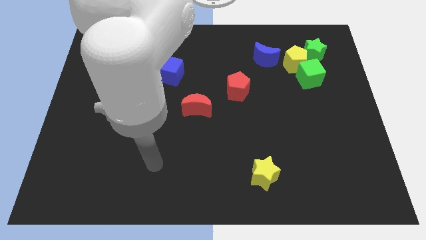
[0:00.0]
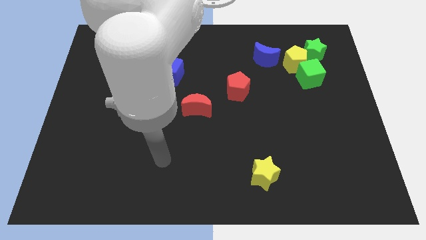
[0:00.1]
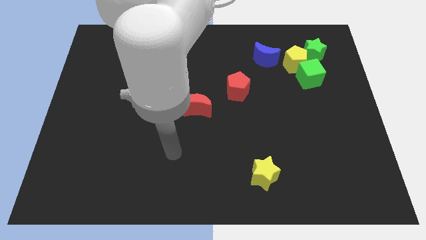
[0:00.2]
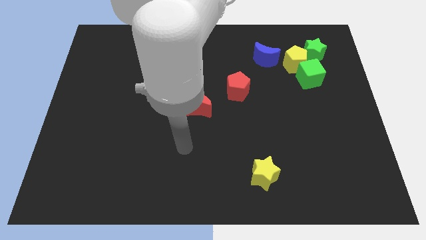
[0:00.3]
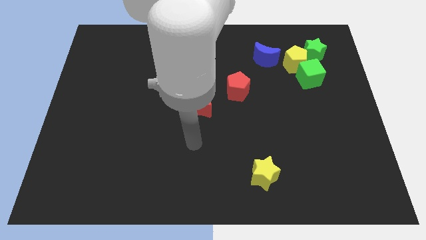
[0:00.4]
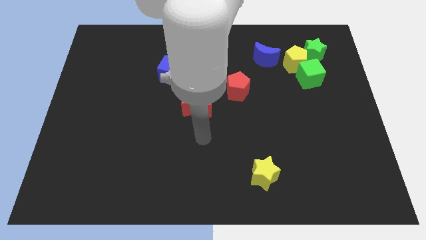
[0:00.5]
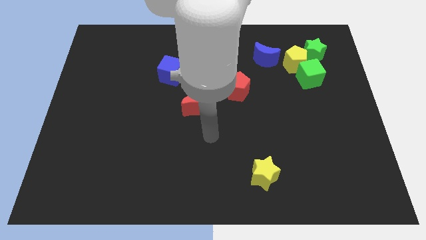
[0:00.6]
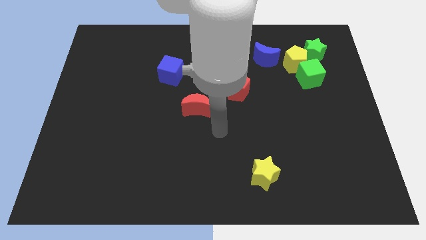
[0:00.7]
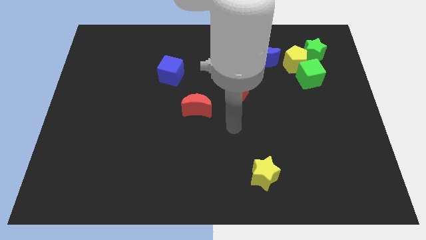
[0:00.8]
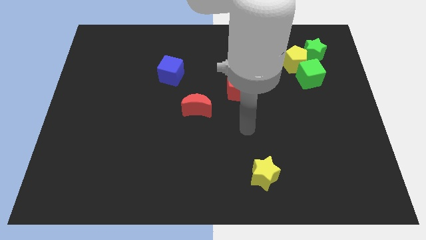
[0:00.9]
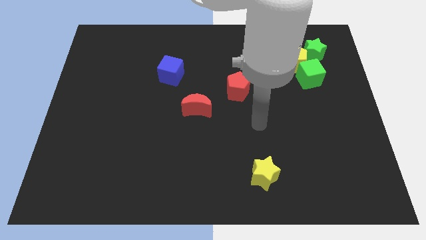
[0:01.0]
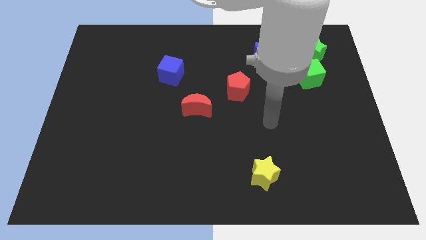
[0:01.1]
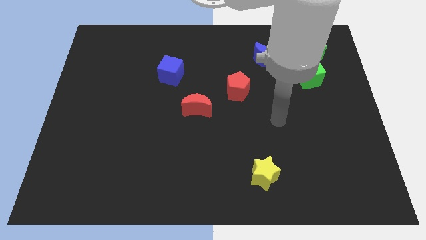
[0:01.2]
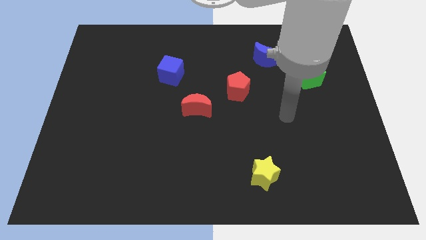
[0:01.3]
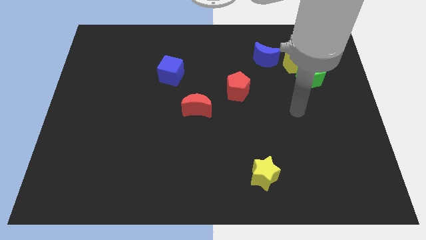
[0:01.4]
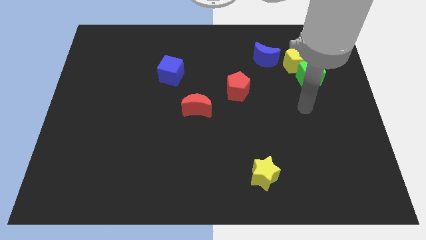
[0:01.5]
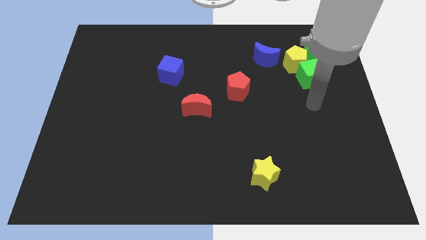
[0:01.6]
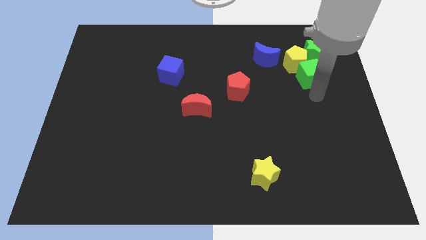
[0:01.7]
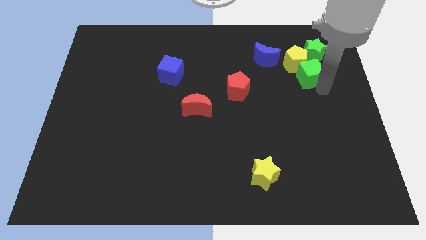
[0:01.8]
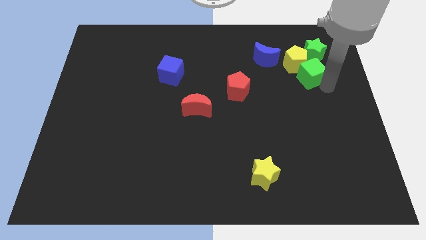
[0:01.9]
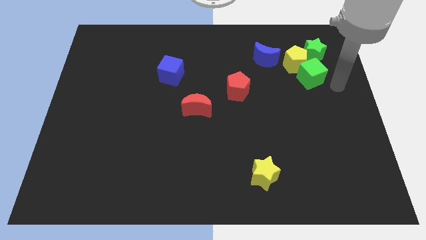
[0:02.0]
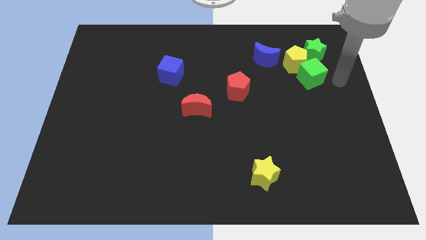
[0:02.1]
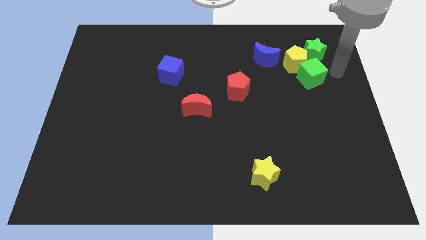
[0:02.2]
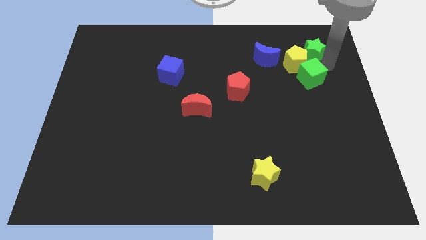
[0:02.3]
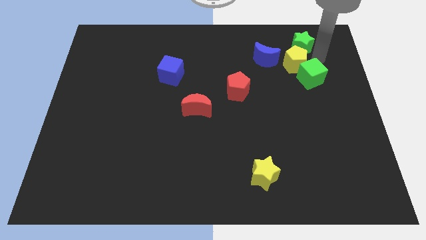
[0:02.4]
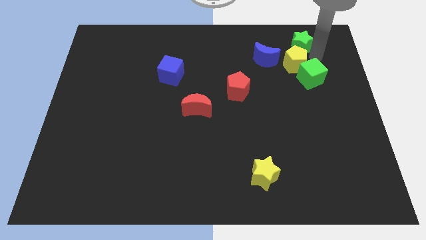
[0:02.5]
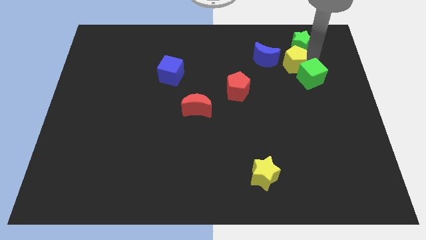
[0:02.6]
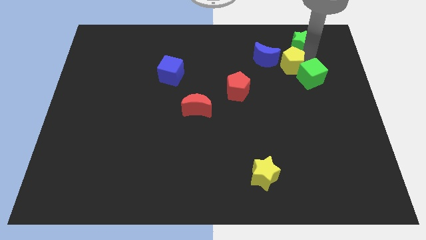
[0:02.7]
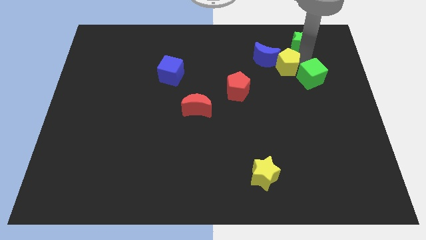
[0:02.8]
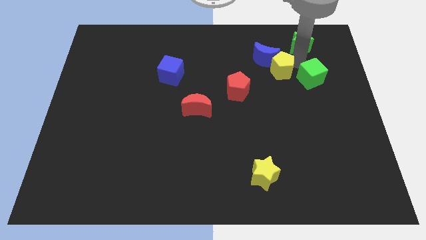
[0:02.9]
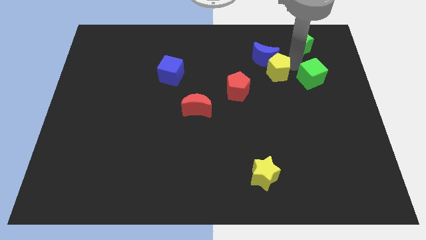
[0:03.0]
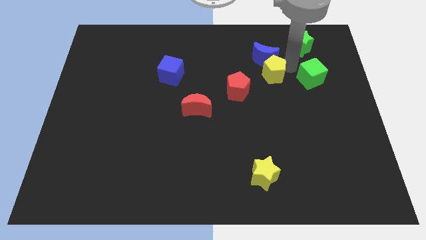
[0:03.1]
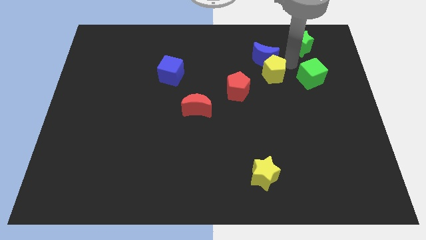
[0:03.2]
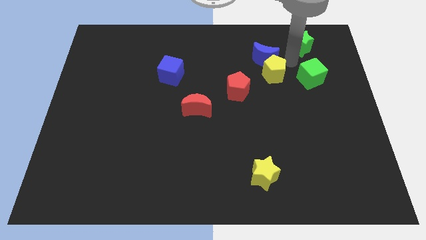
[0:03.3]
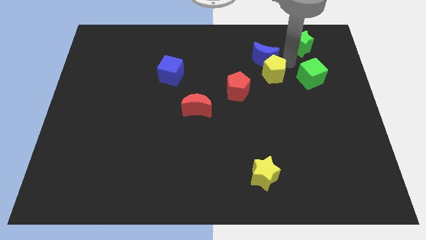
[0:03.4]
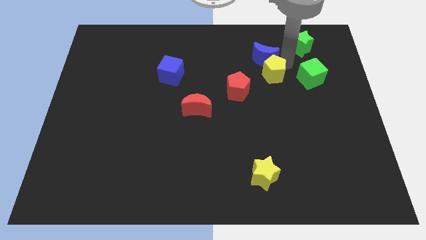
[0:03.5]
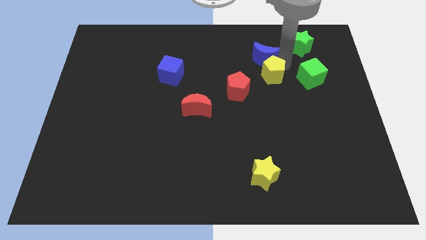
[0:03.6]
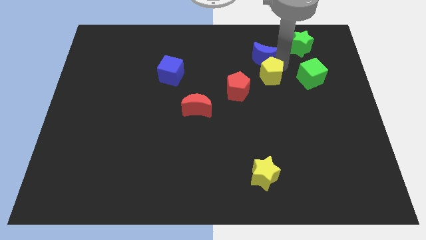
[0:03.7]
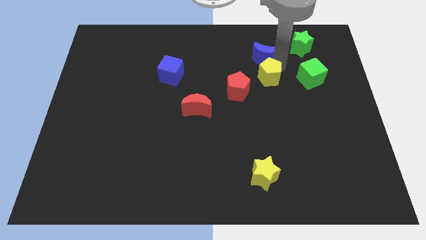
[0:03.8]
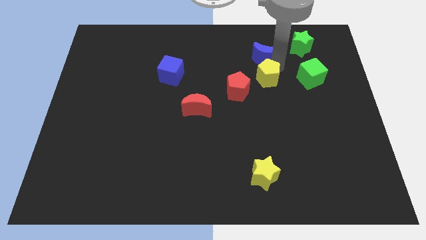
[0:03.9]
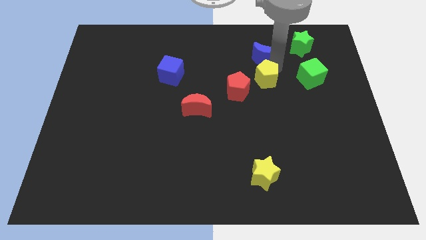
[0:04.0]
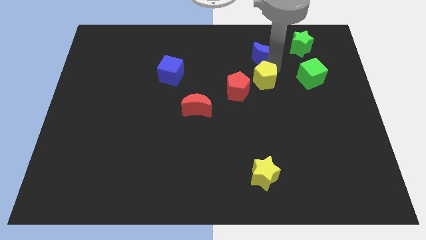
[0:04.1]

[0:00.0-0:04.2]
pull the yellow pentagon apart from the group of blocks

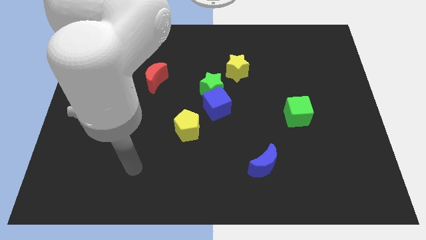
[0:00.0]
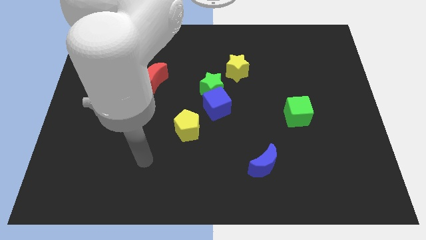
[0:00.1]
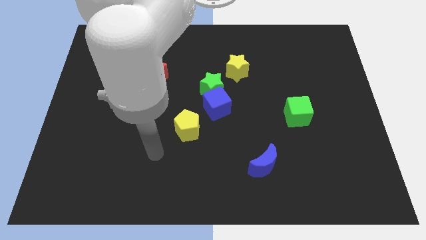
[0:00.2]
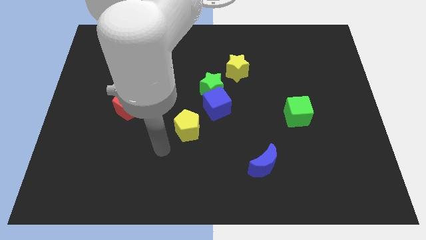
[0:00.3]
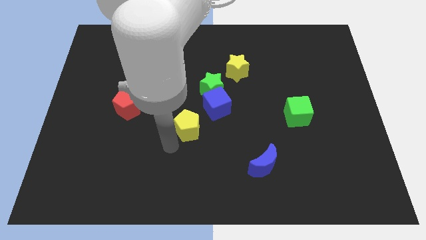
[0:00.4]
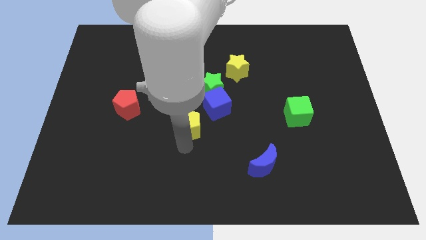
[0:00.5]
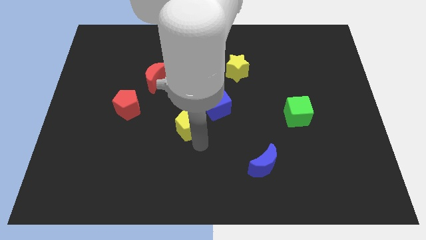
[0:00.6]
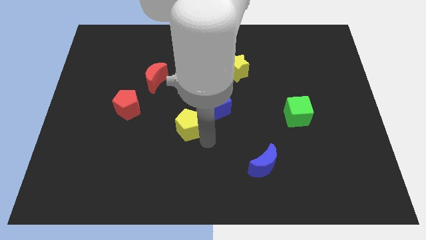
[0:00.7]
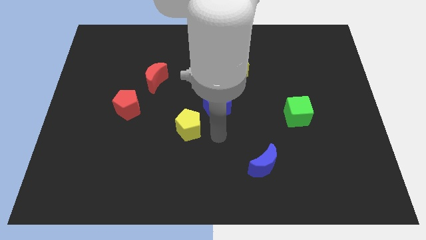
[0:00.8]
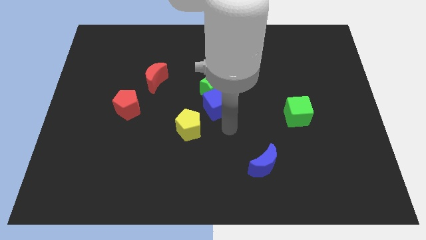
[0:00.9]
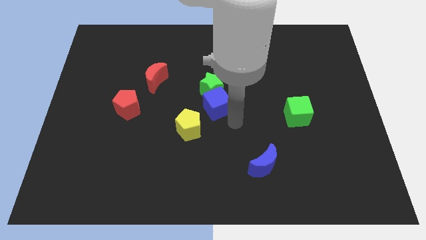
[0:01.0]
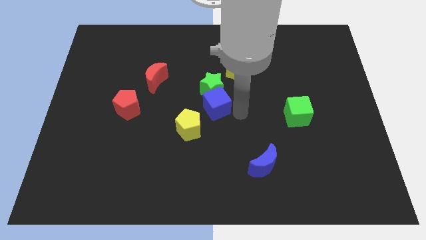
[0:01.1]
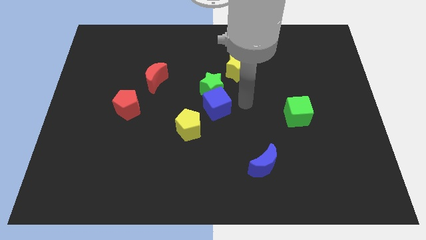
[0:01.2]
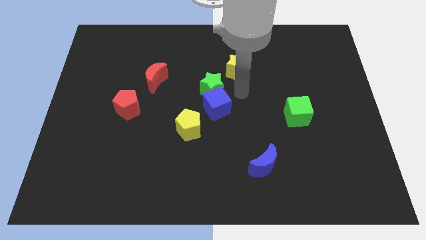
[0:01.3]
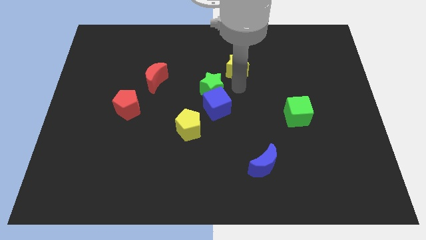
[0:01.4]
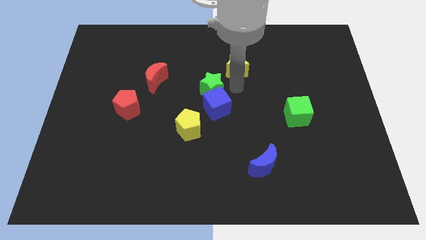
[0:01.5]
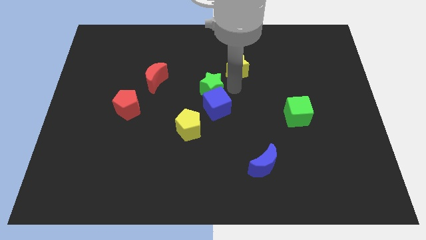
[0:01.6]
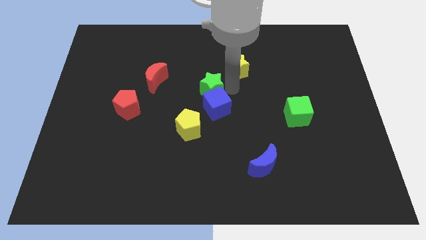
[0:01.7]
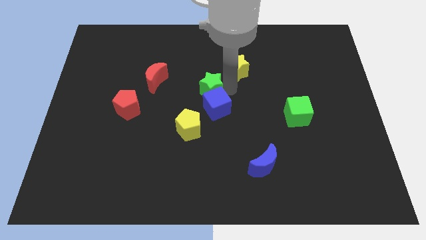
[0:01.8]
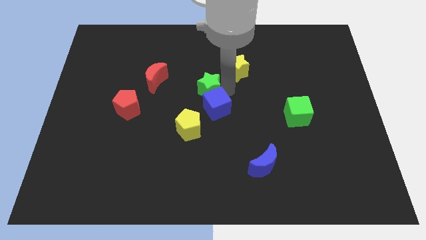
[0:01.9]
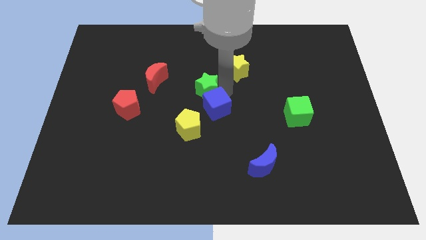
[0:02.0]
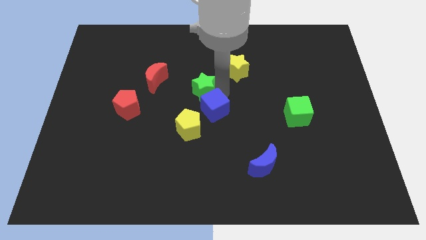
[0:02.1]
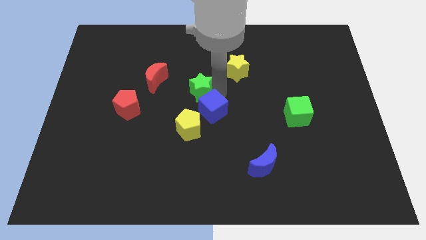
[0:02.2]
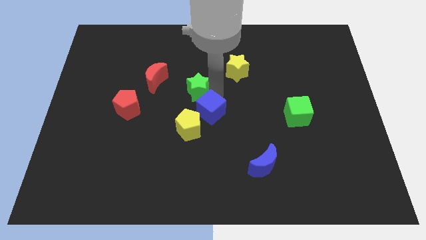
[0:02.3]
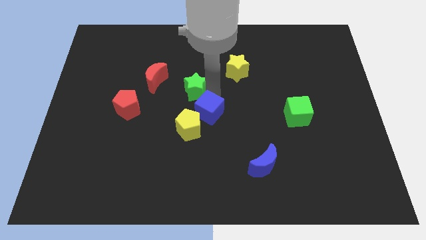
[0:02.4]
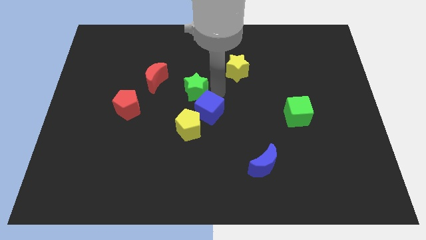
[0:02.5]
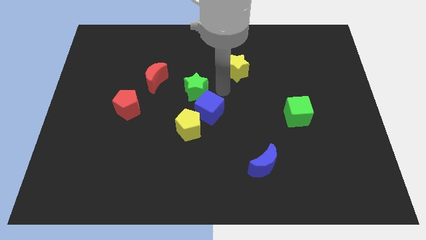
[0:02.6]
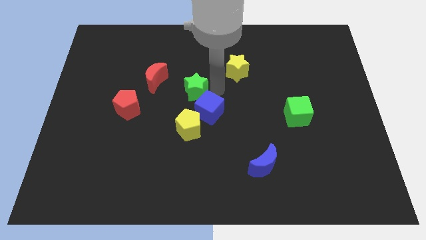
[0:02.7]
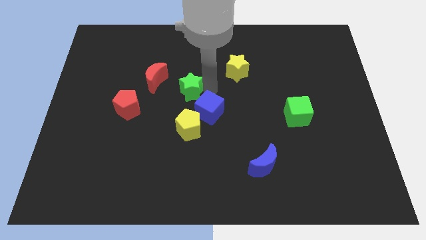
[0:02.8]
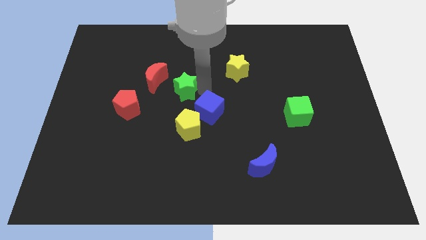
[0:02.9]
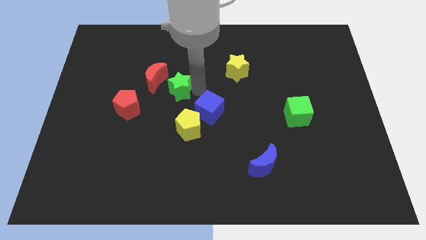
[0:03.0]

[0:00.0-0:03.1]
separate the green star from the blue cube and yellow star

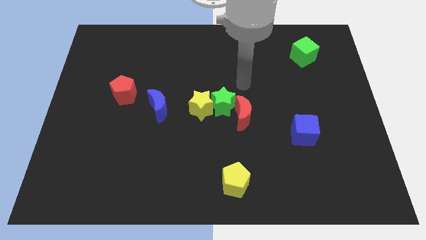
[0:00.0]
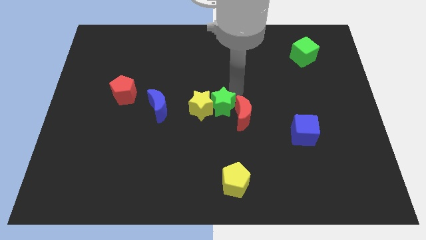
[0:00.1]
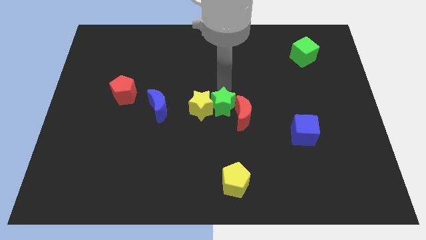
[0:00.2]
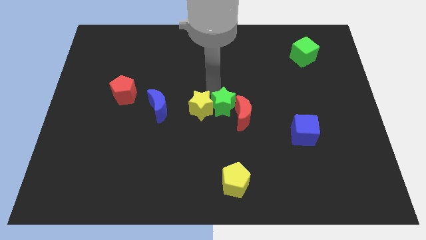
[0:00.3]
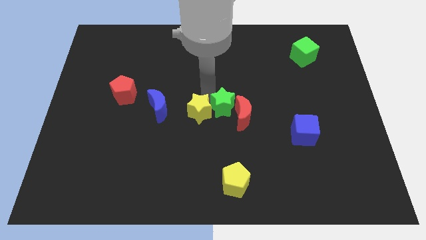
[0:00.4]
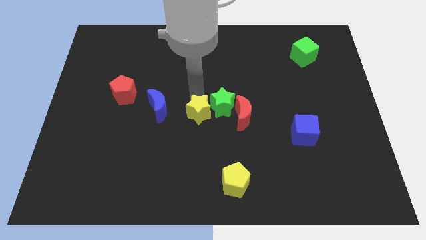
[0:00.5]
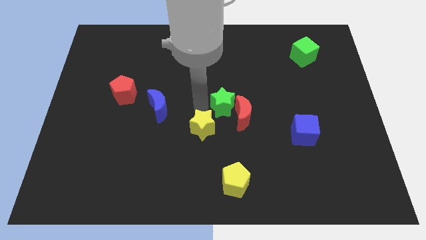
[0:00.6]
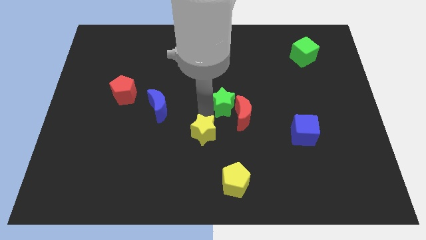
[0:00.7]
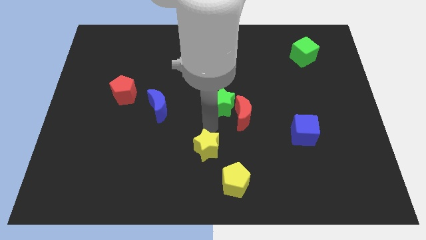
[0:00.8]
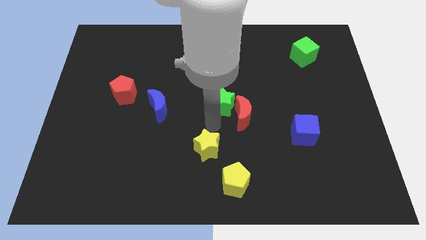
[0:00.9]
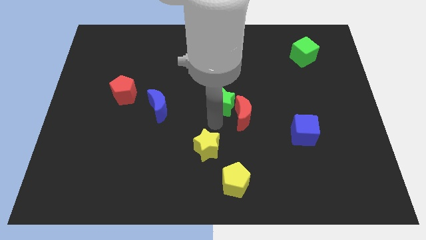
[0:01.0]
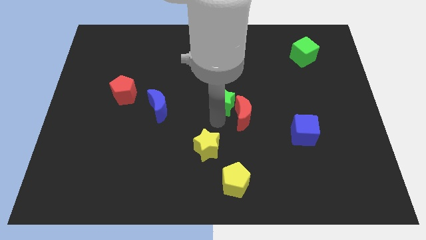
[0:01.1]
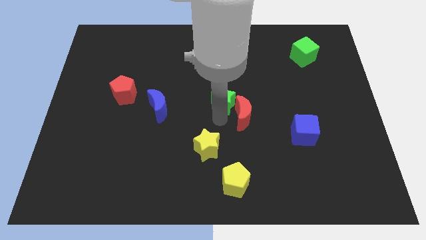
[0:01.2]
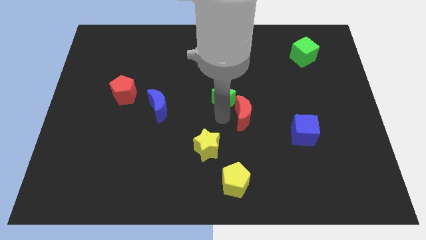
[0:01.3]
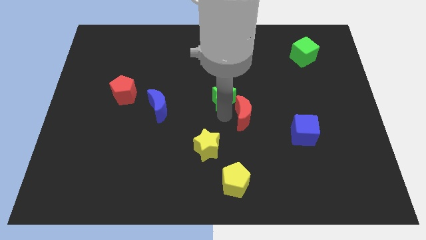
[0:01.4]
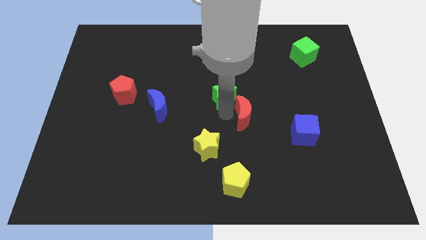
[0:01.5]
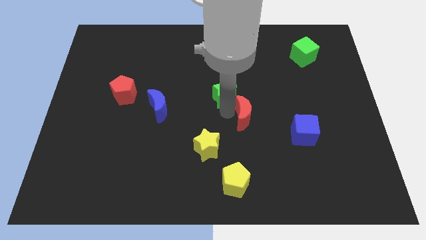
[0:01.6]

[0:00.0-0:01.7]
pull the green star apart from the yellow star and red moon

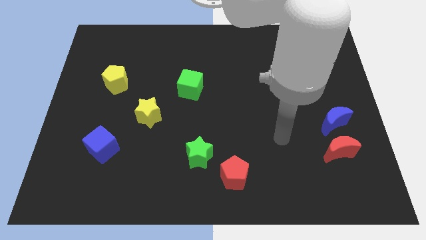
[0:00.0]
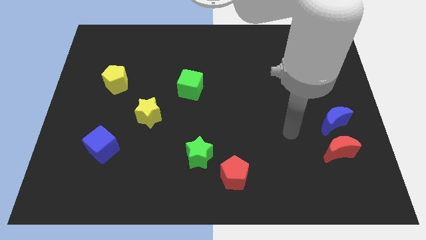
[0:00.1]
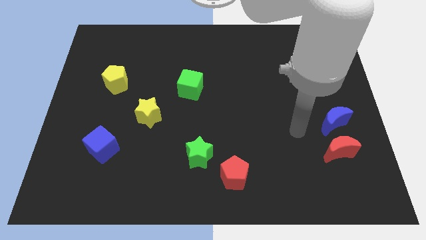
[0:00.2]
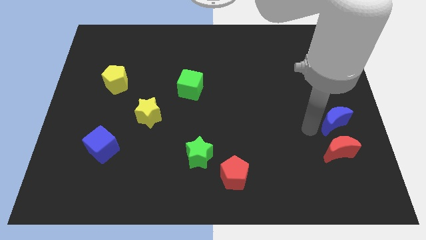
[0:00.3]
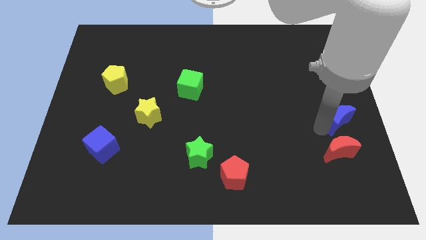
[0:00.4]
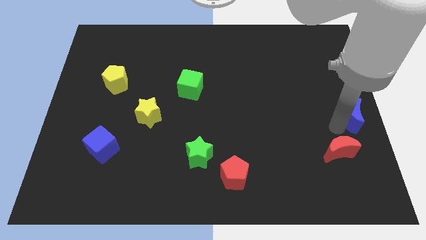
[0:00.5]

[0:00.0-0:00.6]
pull the red moon apart from the blue moon
